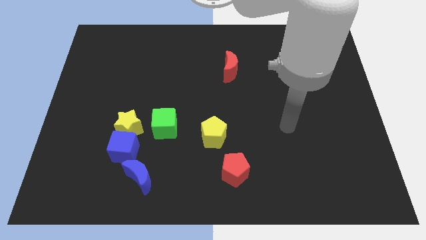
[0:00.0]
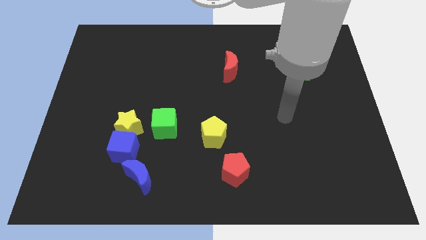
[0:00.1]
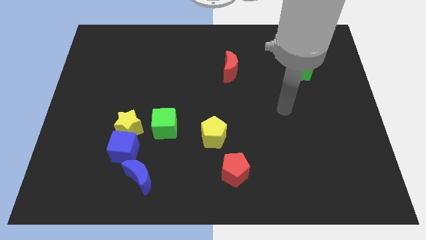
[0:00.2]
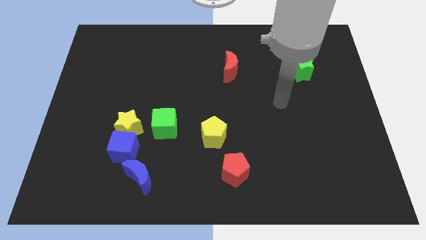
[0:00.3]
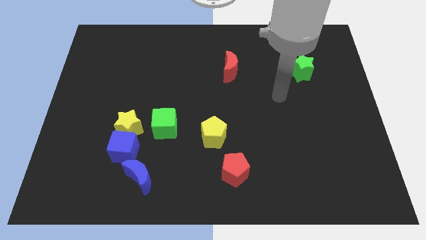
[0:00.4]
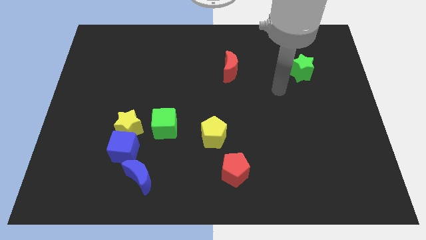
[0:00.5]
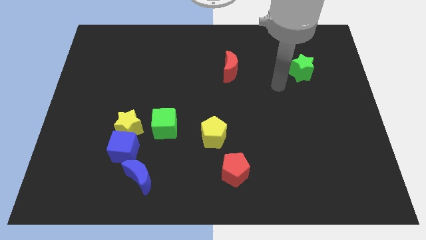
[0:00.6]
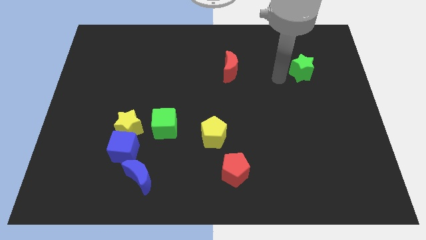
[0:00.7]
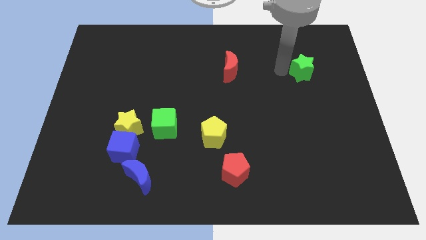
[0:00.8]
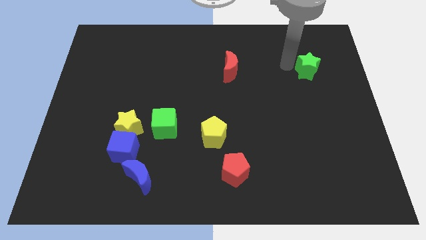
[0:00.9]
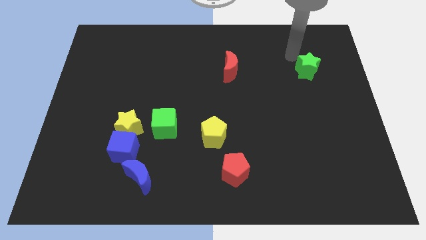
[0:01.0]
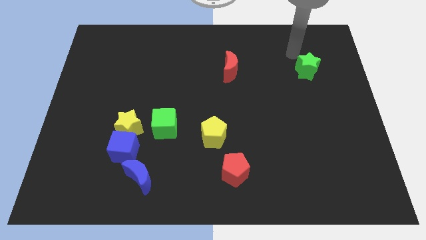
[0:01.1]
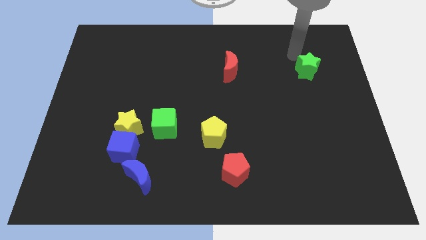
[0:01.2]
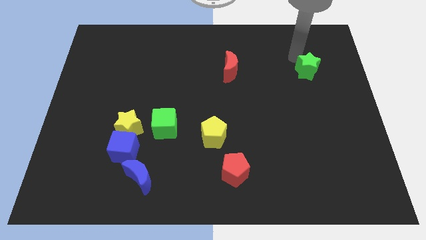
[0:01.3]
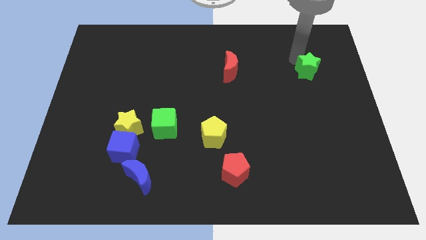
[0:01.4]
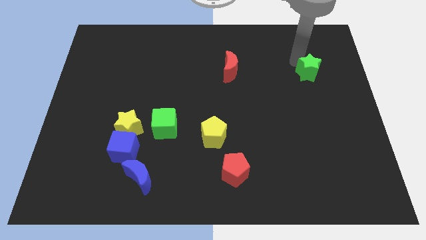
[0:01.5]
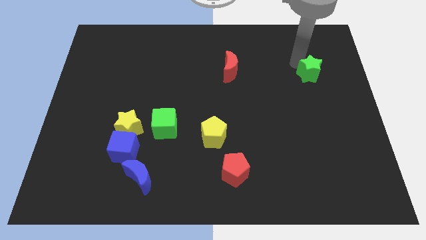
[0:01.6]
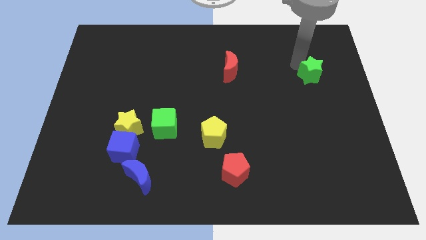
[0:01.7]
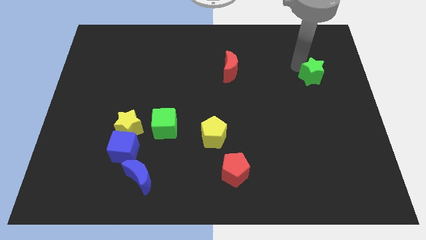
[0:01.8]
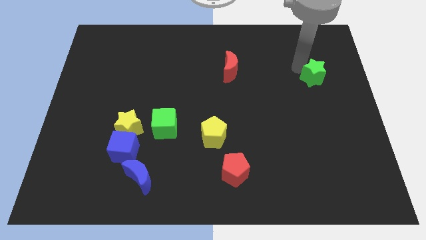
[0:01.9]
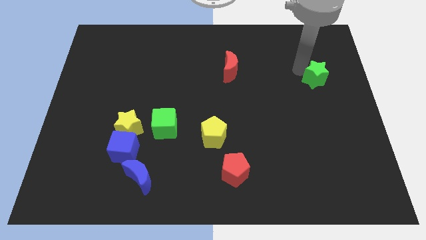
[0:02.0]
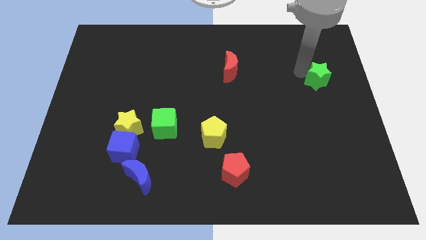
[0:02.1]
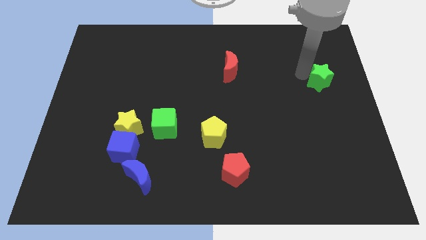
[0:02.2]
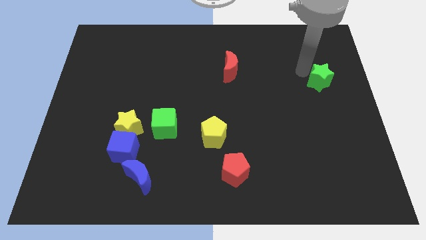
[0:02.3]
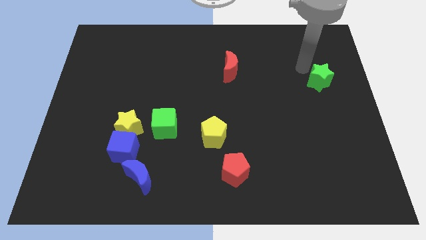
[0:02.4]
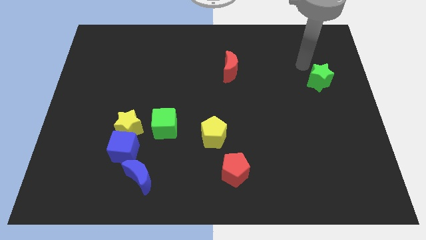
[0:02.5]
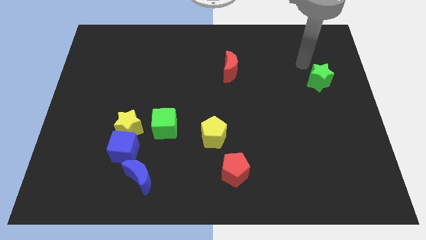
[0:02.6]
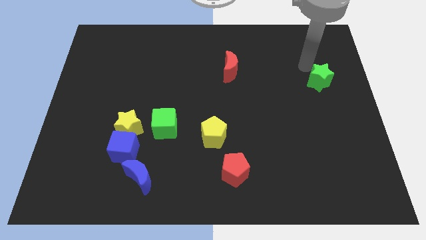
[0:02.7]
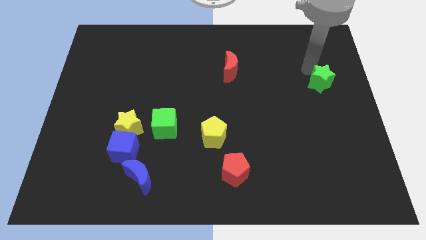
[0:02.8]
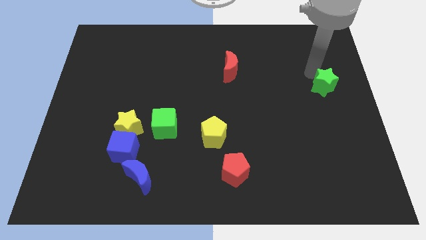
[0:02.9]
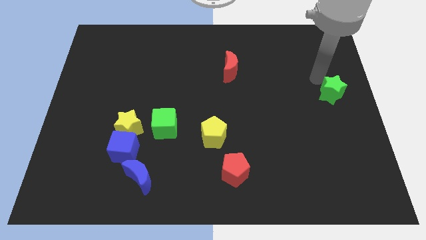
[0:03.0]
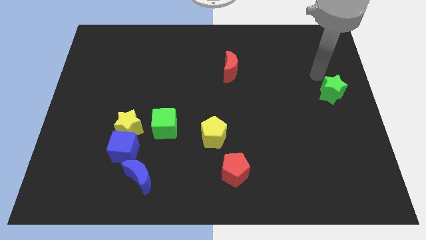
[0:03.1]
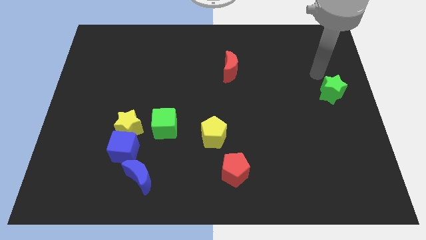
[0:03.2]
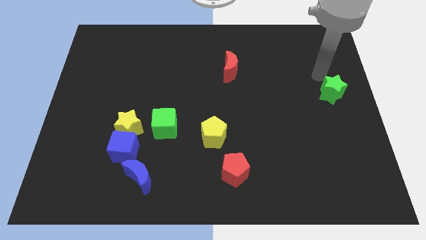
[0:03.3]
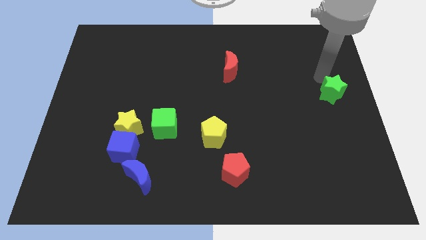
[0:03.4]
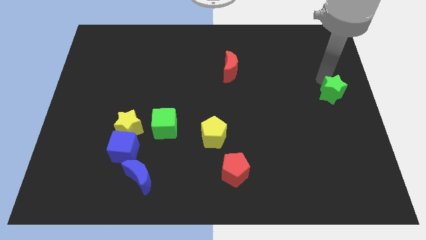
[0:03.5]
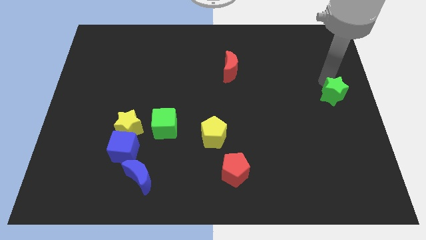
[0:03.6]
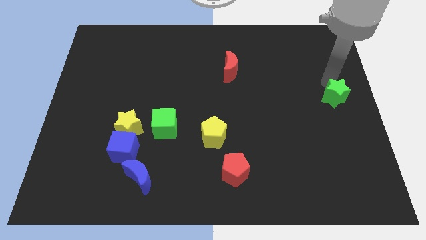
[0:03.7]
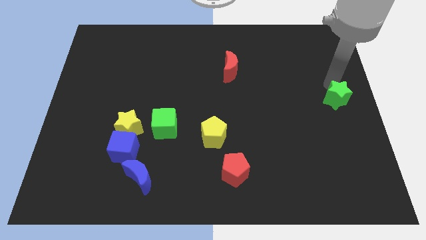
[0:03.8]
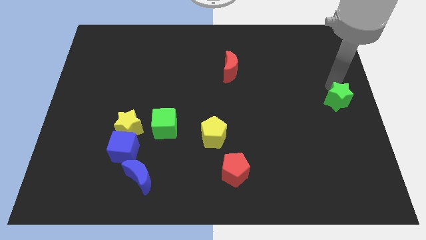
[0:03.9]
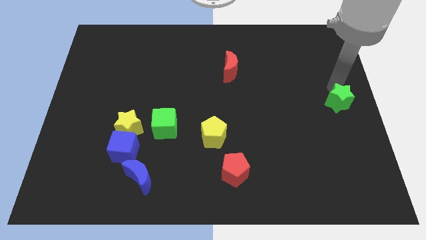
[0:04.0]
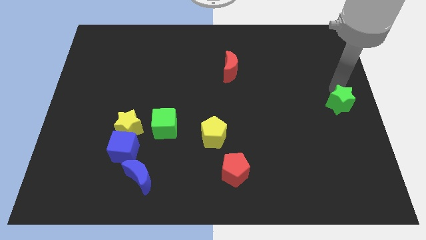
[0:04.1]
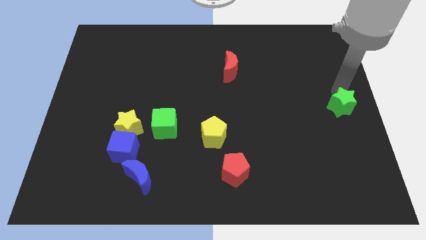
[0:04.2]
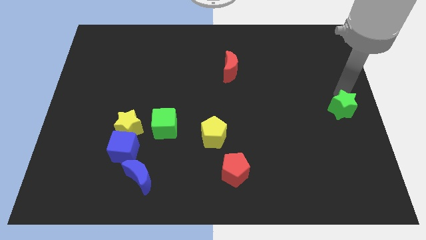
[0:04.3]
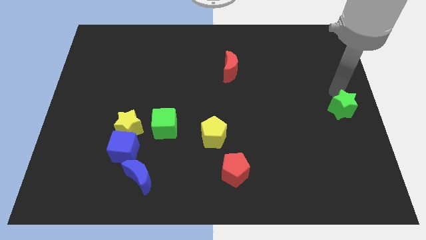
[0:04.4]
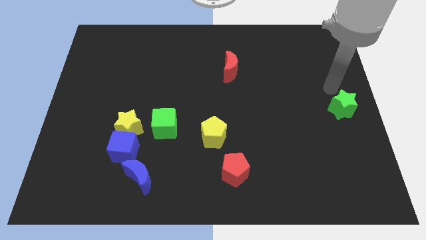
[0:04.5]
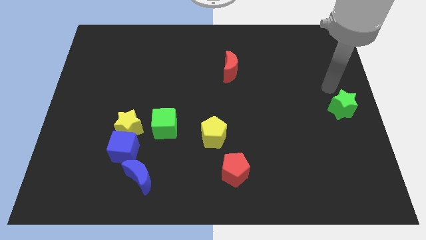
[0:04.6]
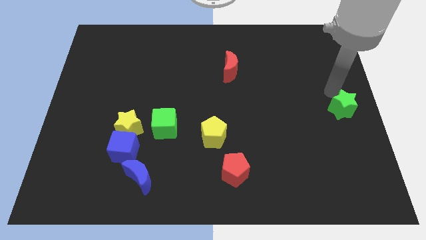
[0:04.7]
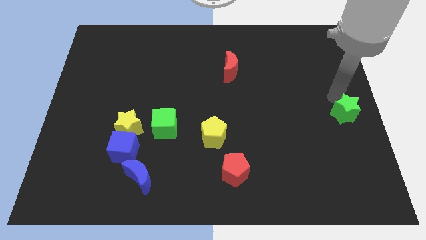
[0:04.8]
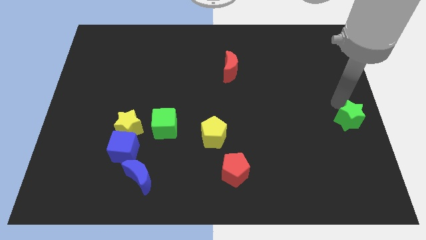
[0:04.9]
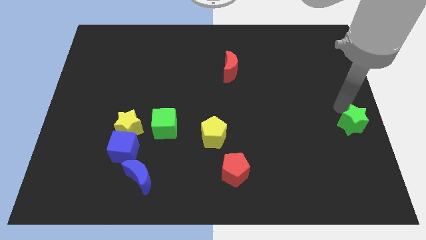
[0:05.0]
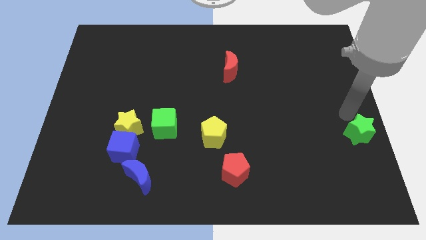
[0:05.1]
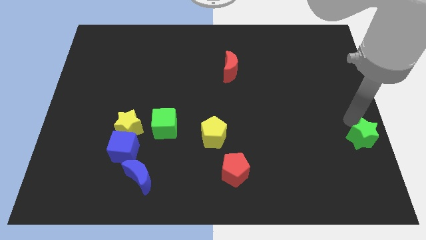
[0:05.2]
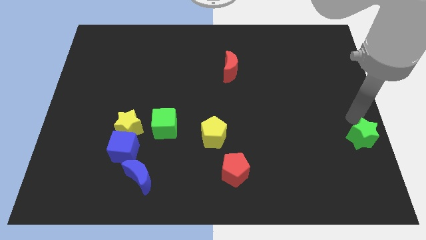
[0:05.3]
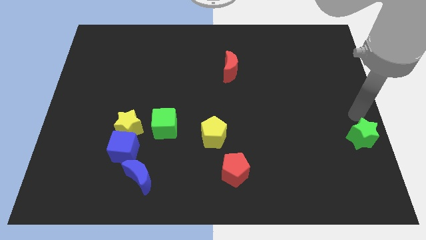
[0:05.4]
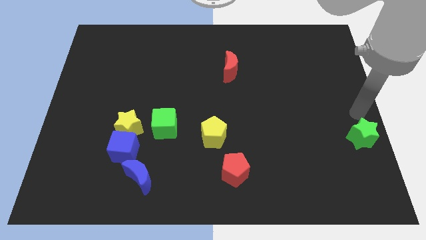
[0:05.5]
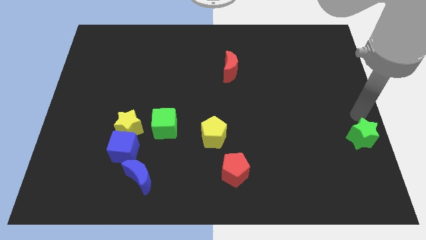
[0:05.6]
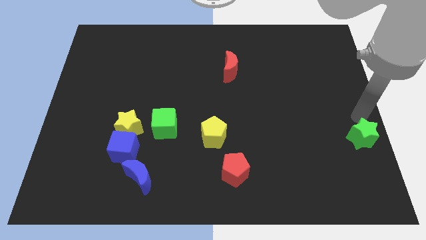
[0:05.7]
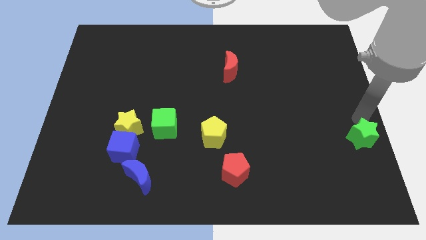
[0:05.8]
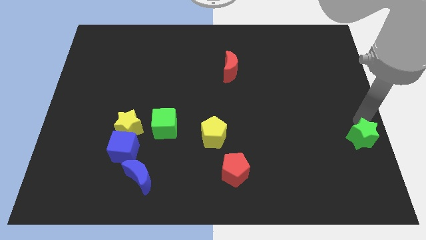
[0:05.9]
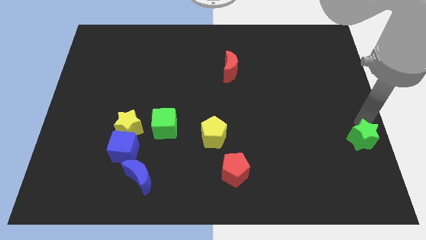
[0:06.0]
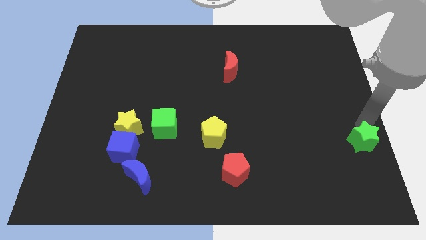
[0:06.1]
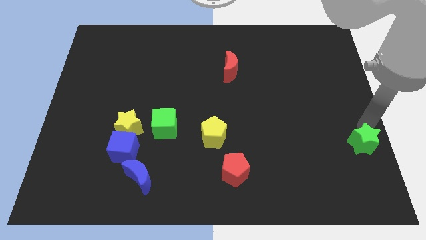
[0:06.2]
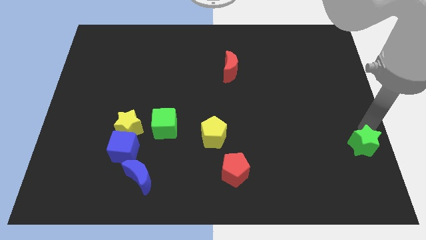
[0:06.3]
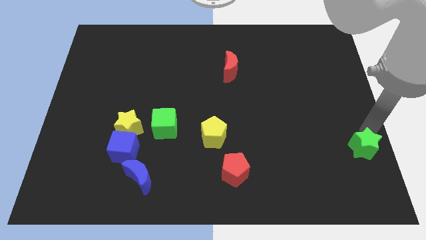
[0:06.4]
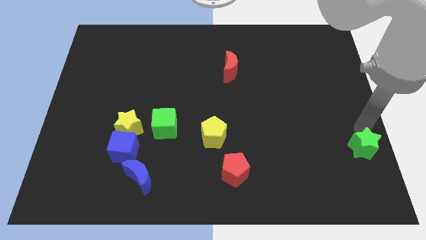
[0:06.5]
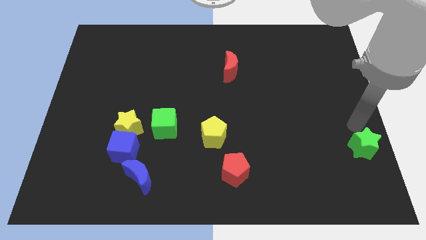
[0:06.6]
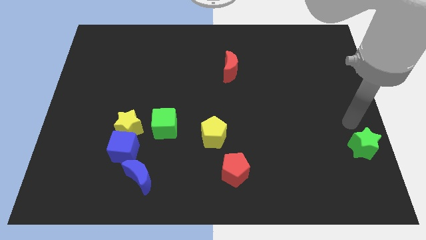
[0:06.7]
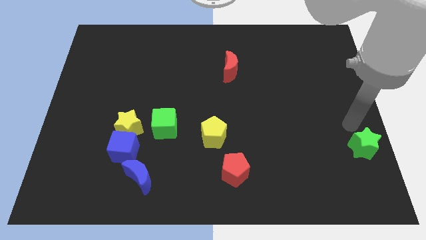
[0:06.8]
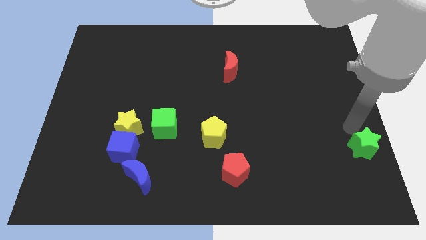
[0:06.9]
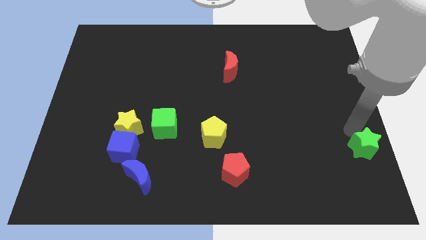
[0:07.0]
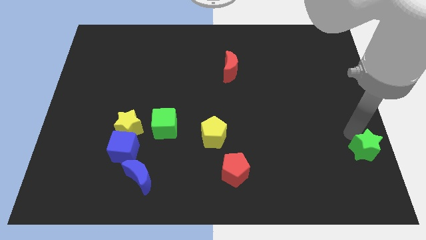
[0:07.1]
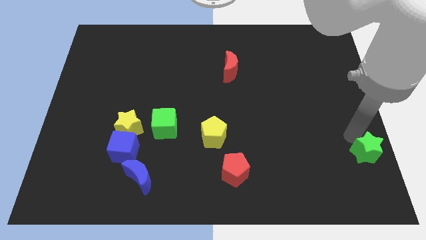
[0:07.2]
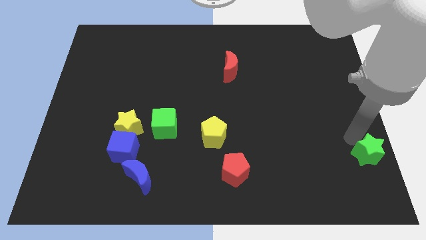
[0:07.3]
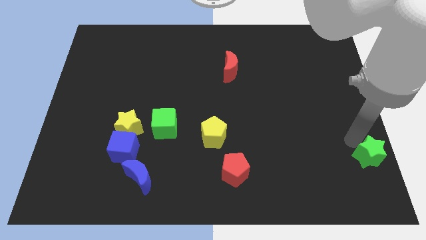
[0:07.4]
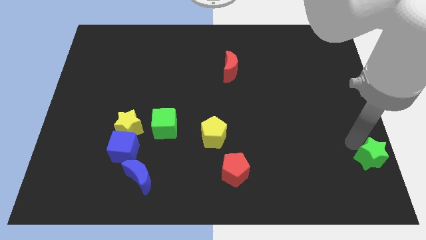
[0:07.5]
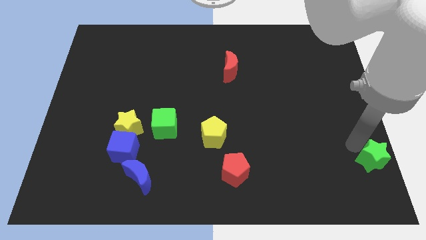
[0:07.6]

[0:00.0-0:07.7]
put the green star to the bottom right corner
